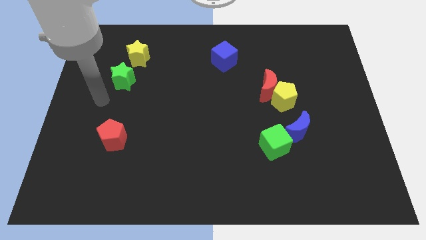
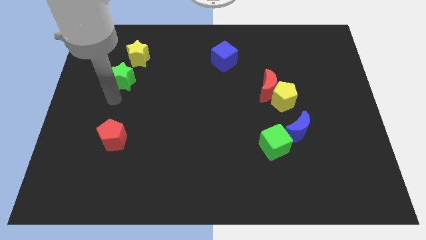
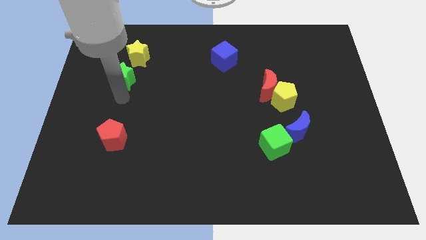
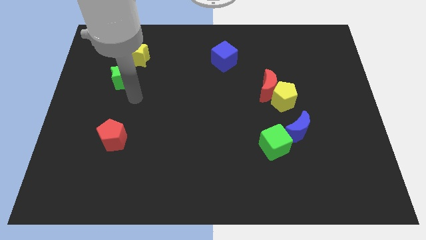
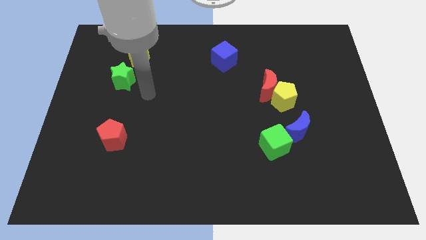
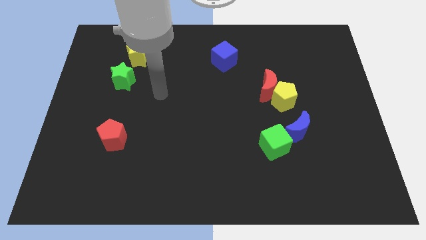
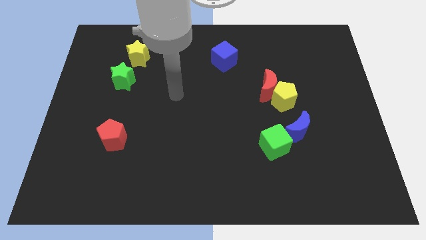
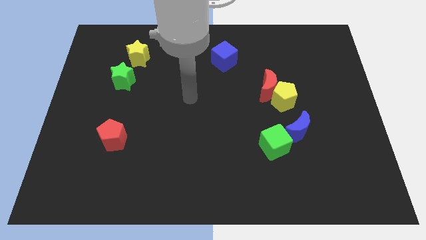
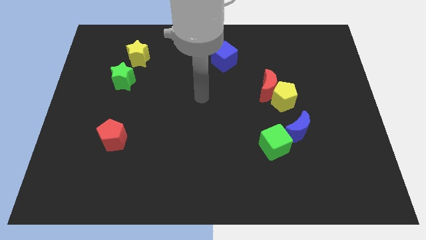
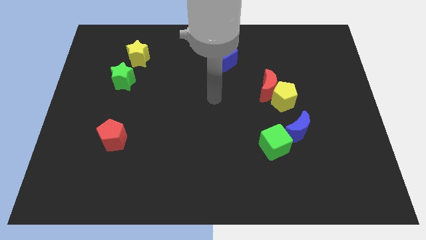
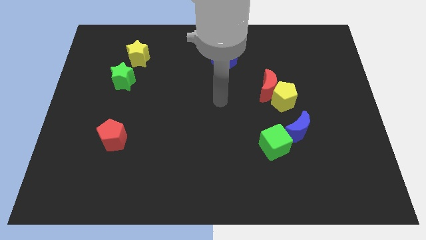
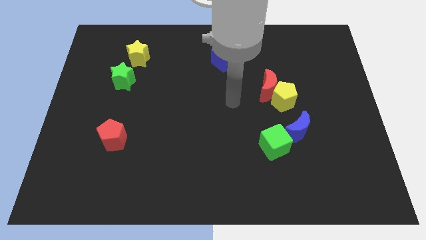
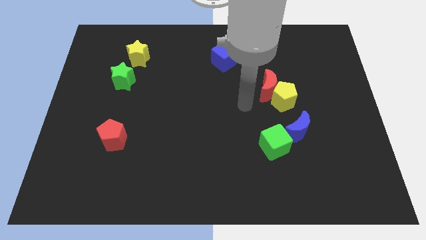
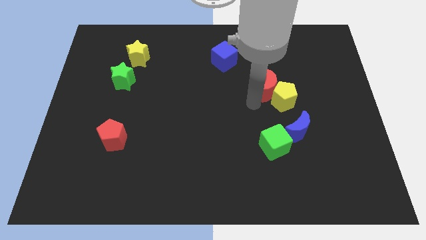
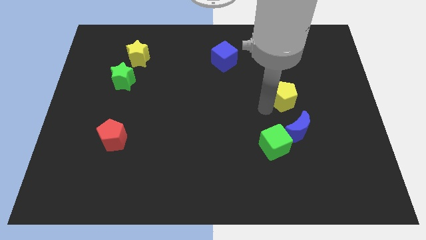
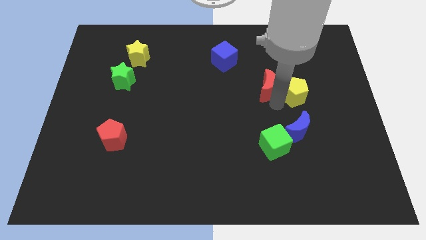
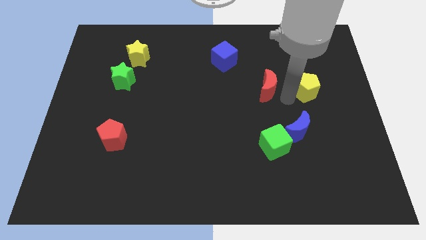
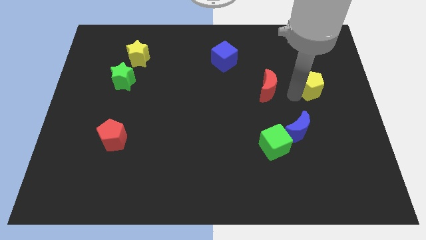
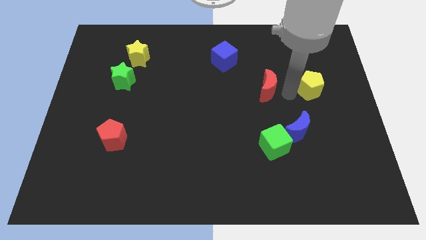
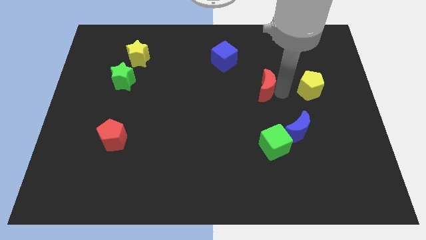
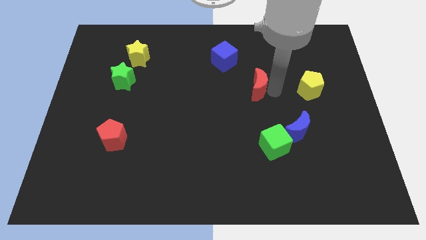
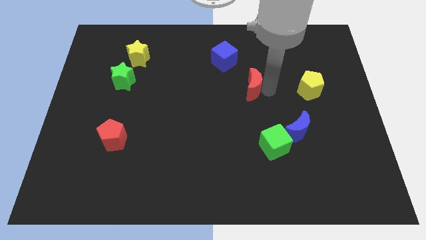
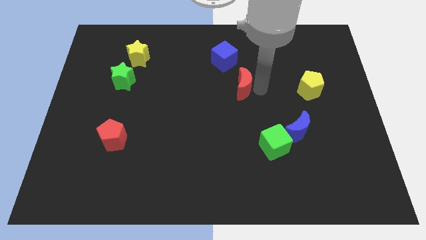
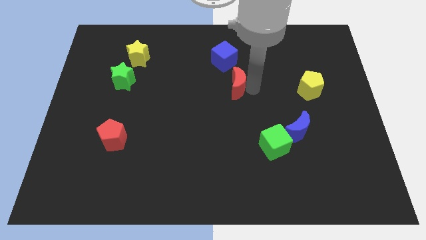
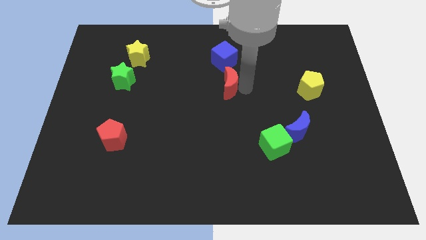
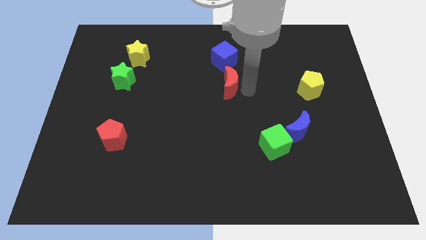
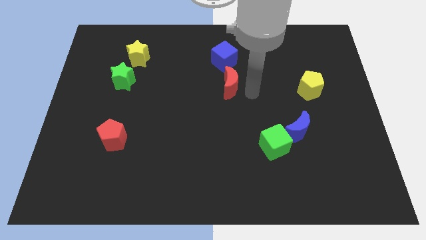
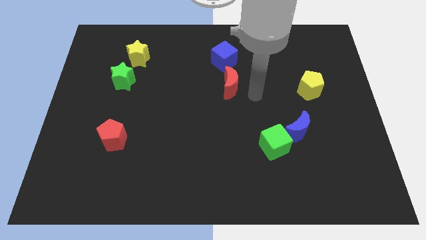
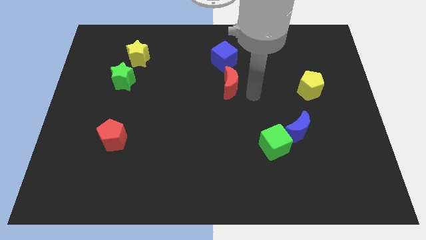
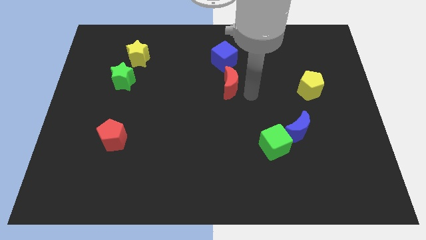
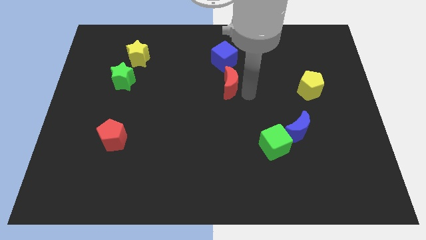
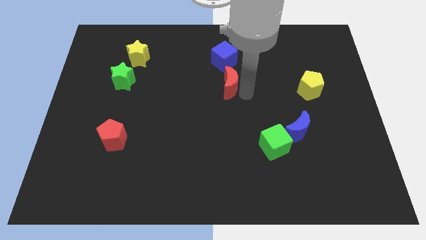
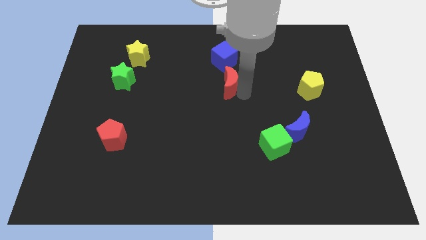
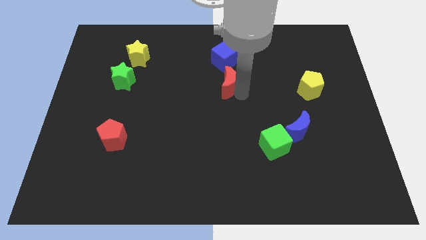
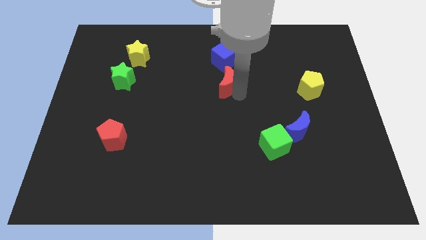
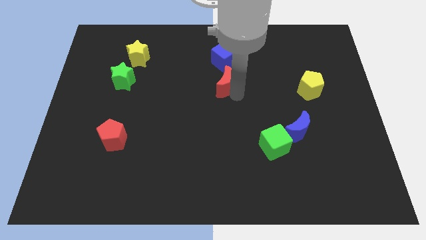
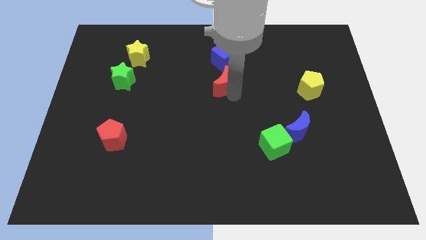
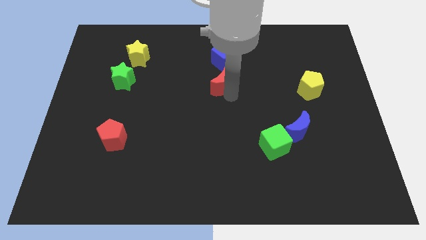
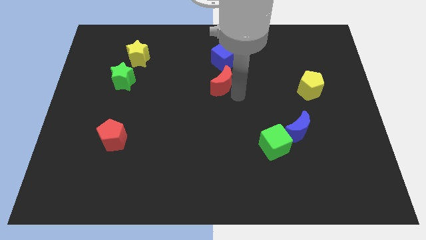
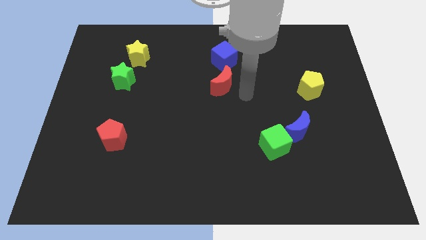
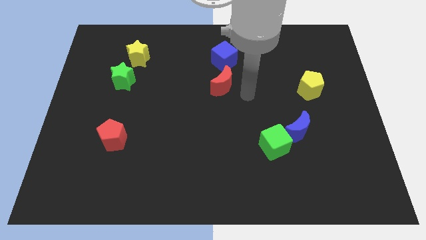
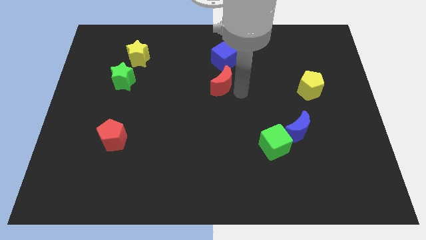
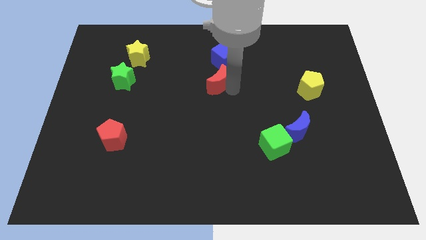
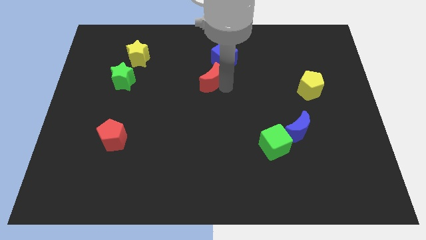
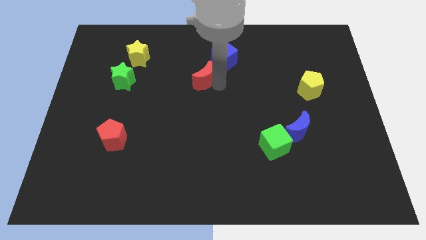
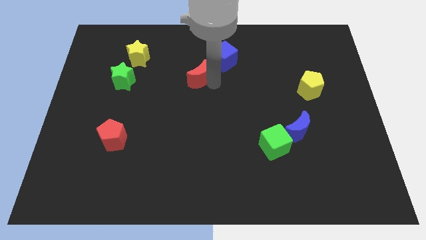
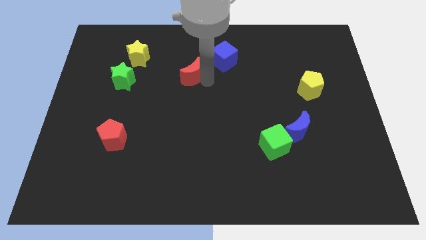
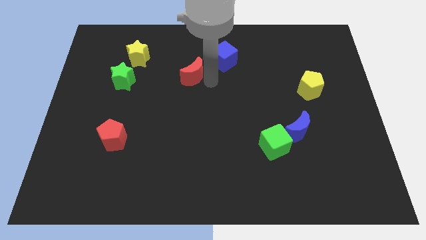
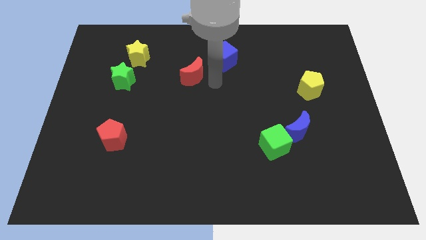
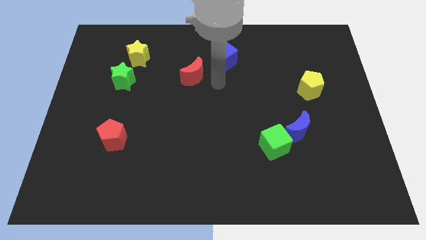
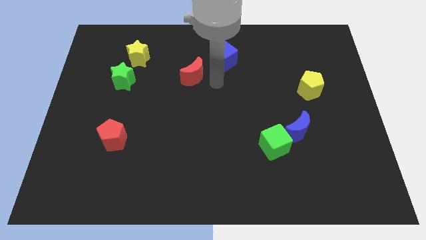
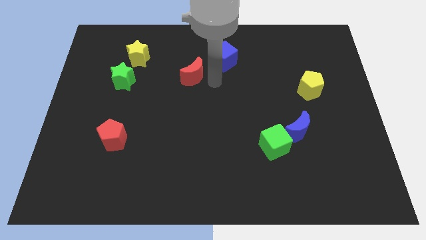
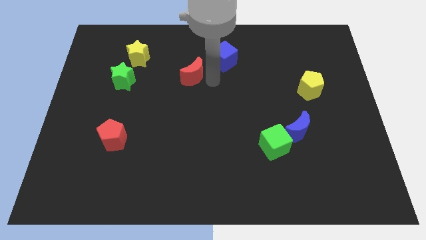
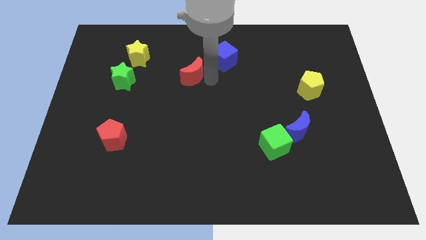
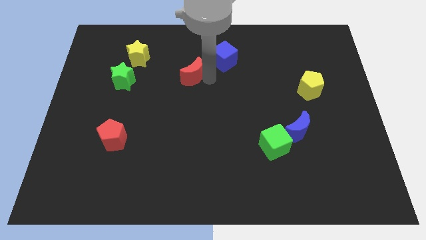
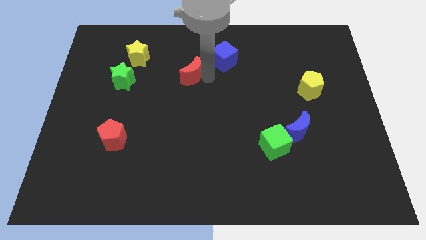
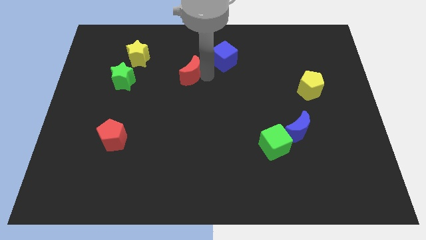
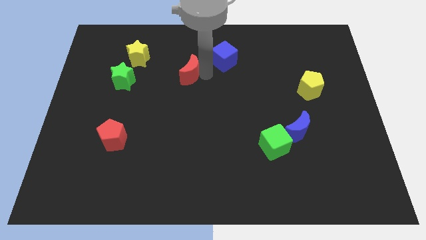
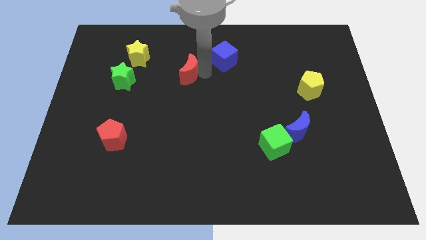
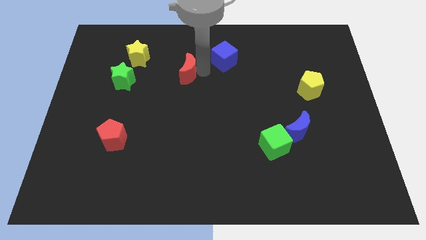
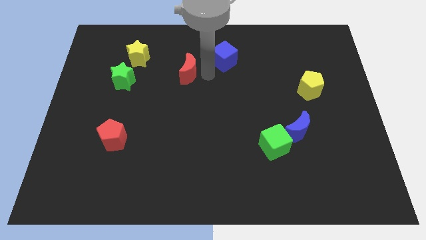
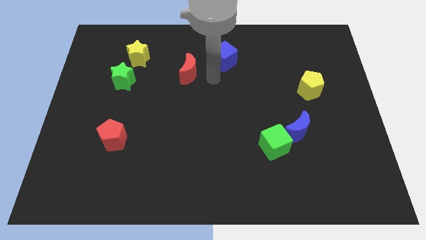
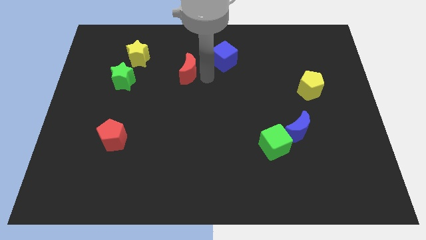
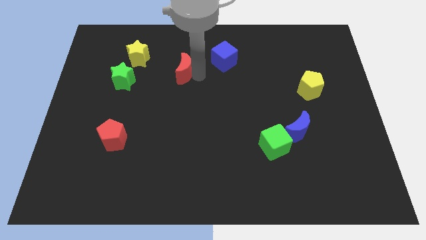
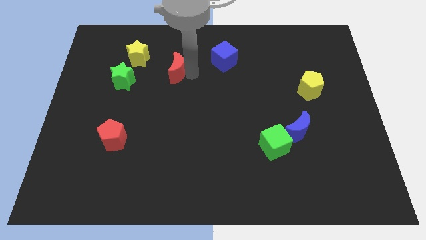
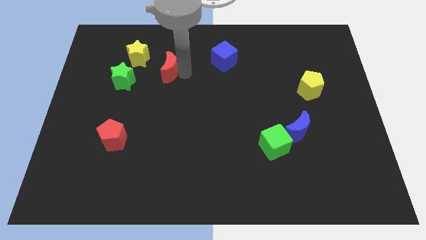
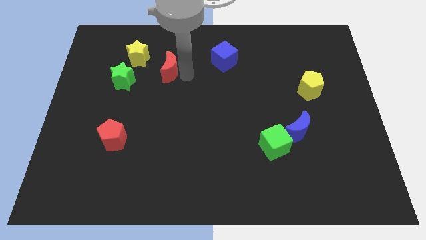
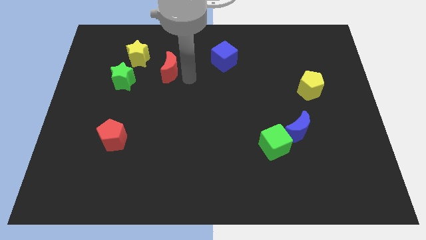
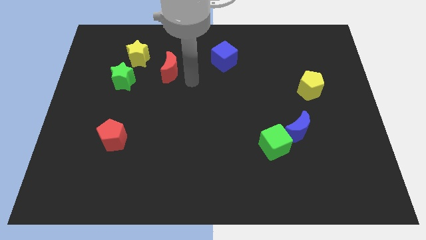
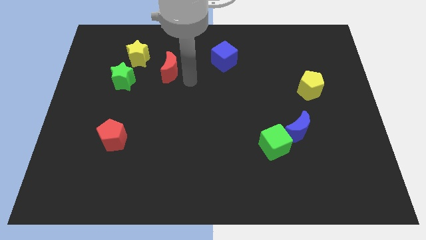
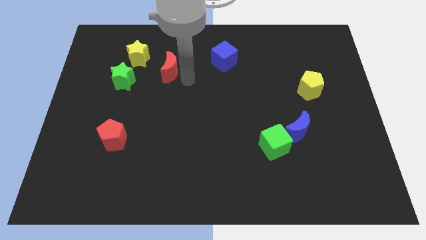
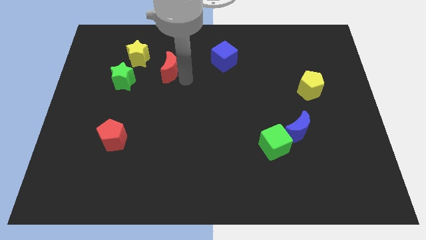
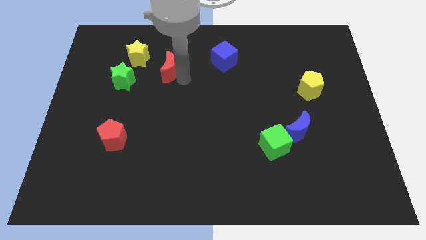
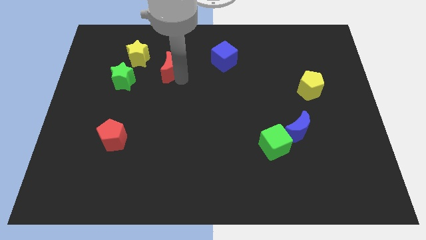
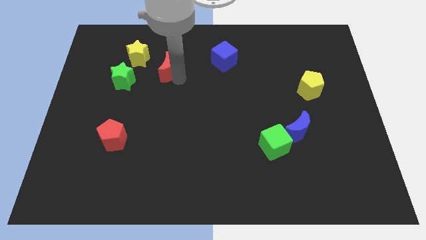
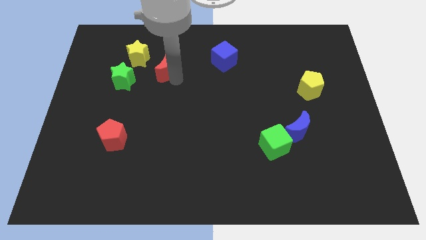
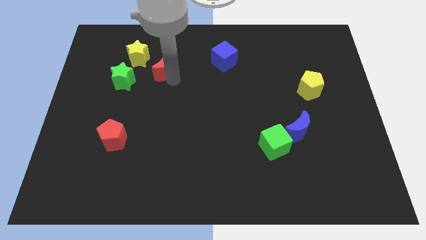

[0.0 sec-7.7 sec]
move the red moon diagonally up and to the right of the green star
